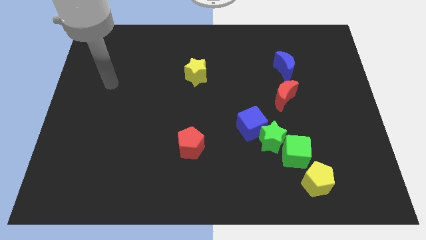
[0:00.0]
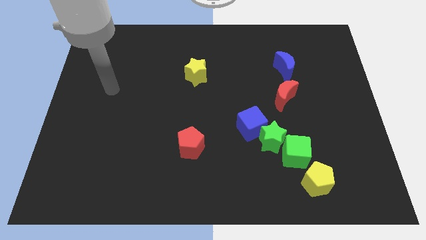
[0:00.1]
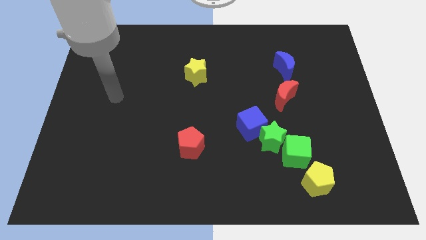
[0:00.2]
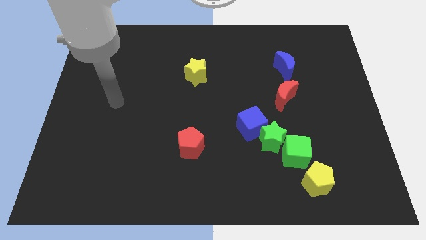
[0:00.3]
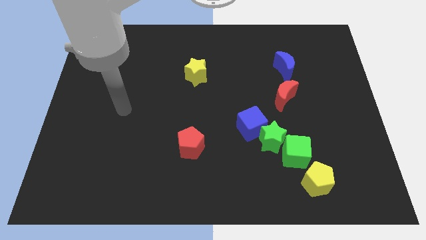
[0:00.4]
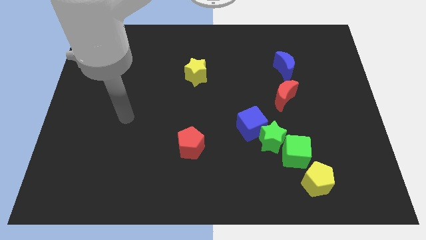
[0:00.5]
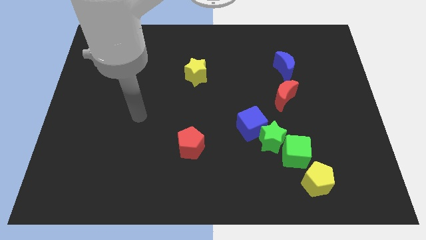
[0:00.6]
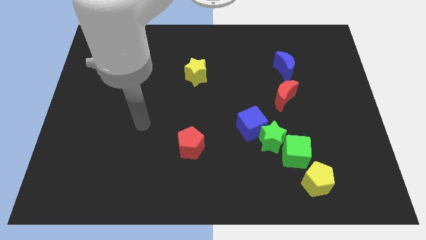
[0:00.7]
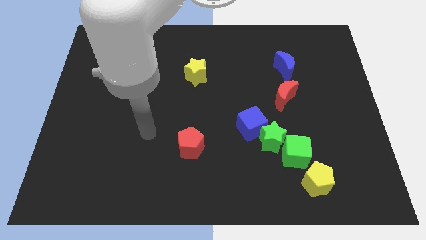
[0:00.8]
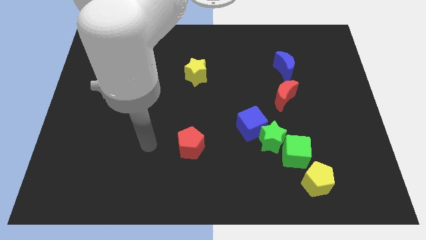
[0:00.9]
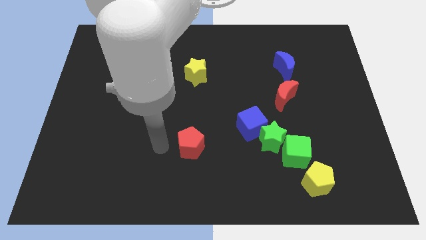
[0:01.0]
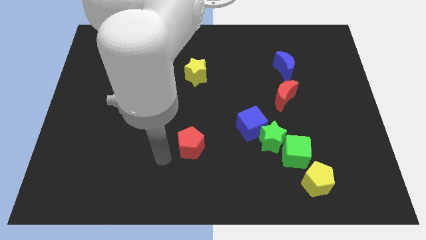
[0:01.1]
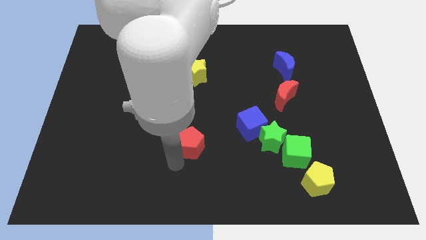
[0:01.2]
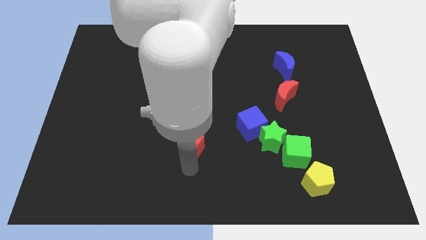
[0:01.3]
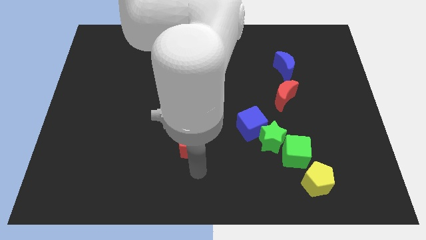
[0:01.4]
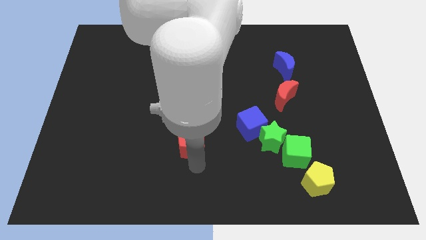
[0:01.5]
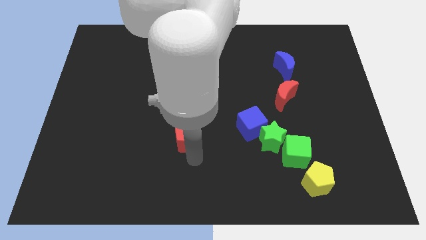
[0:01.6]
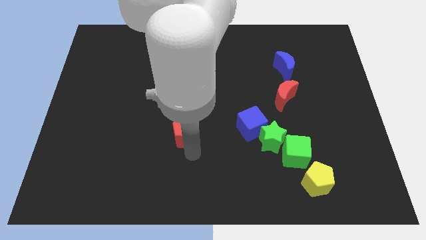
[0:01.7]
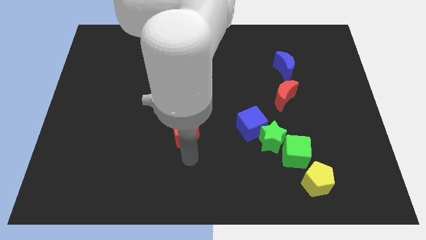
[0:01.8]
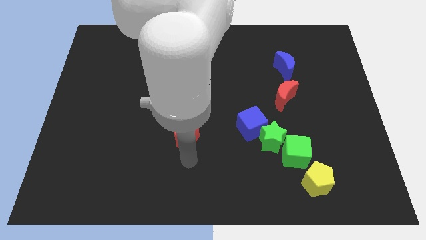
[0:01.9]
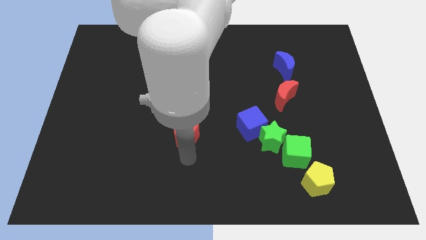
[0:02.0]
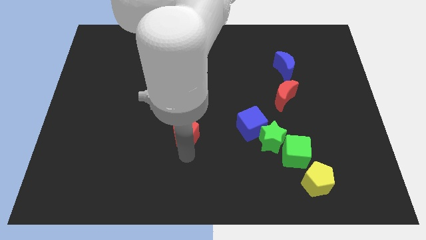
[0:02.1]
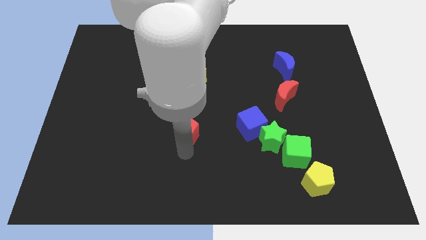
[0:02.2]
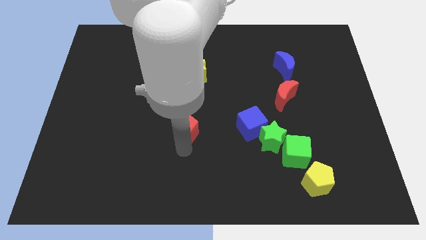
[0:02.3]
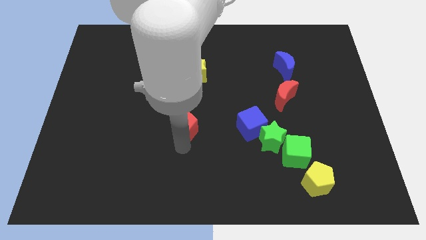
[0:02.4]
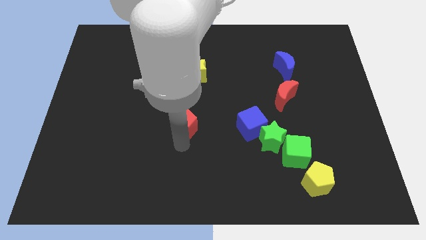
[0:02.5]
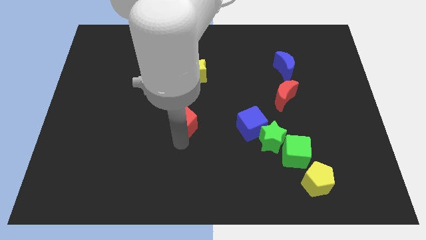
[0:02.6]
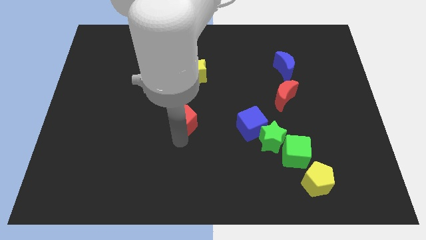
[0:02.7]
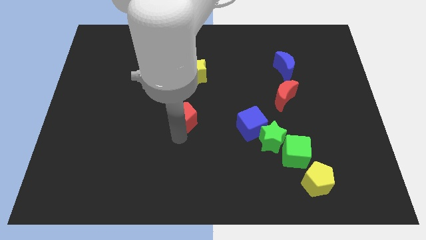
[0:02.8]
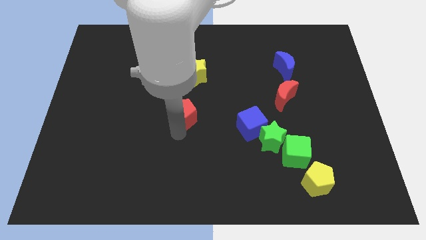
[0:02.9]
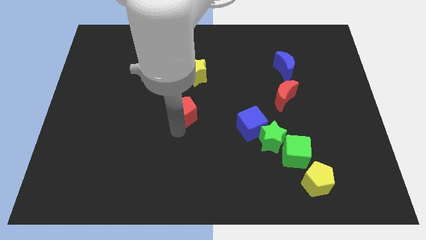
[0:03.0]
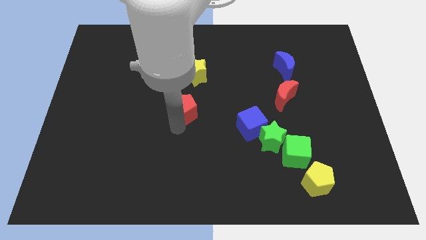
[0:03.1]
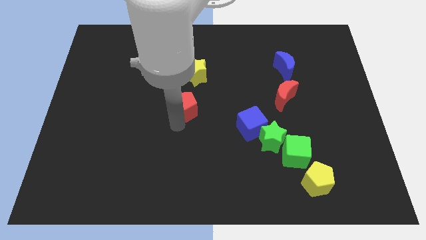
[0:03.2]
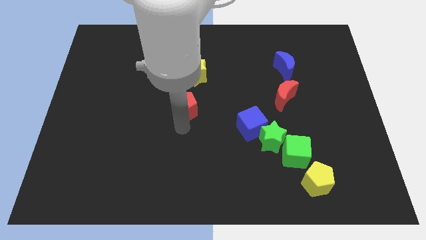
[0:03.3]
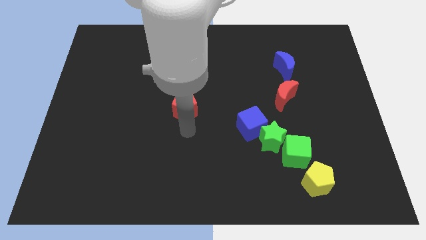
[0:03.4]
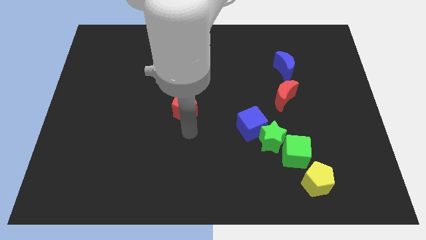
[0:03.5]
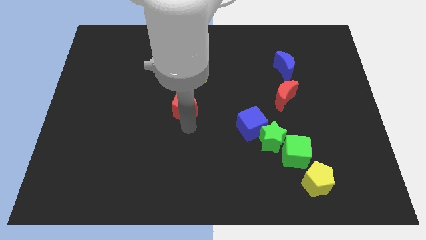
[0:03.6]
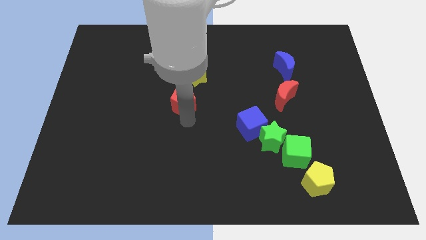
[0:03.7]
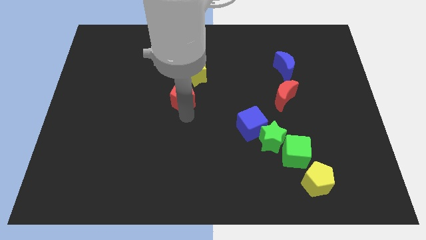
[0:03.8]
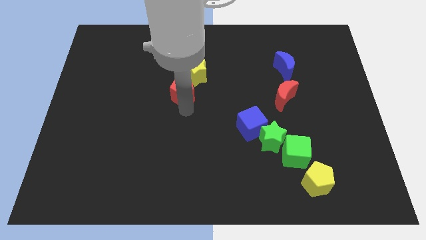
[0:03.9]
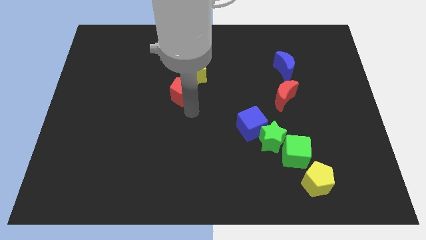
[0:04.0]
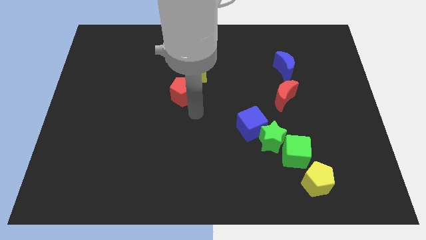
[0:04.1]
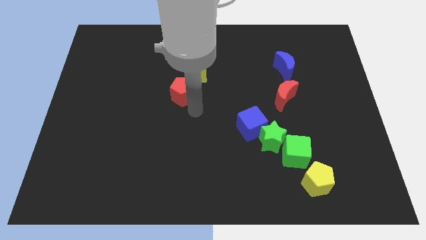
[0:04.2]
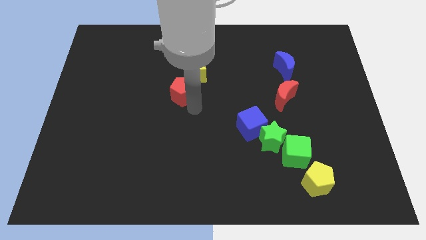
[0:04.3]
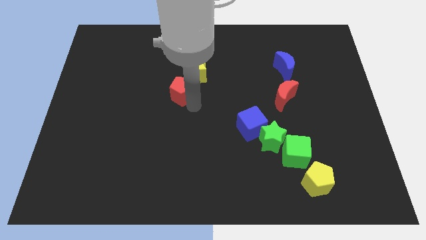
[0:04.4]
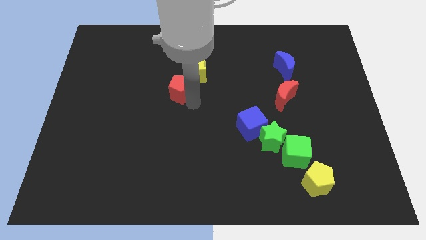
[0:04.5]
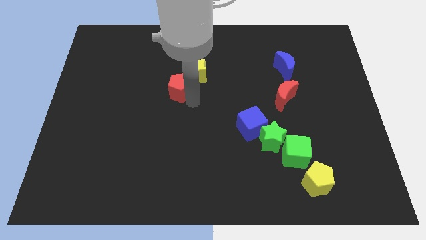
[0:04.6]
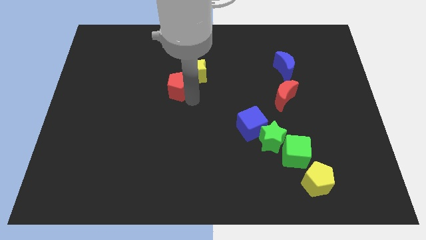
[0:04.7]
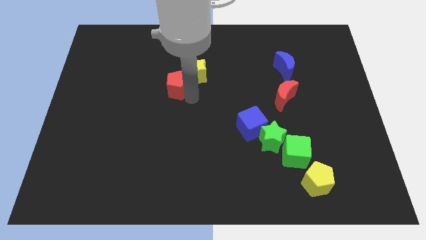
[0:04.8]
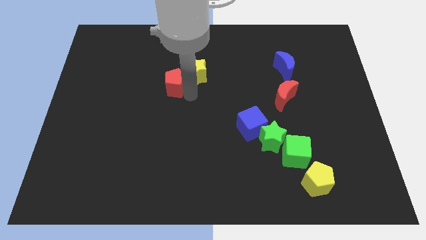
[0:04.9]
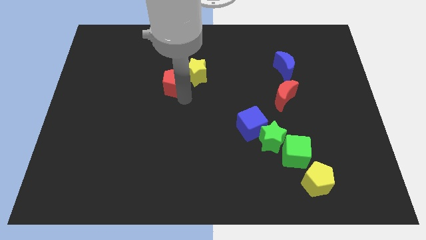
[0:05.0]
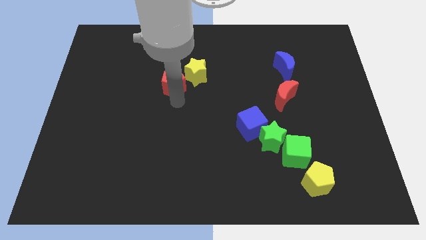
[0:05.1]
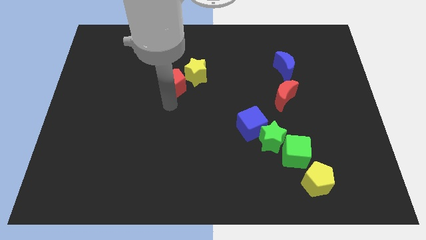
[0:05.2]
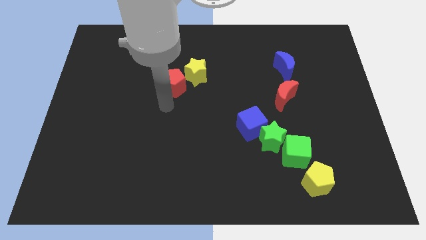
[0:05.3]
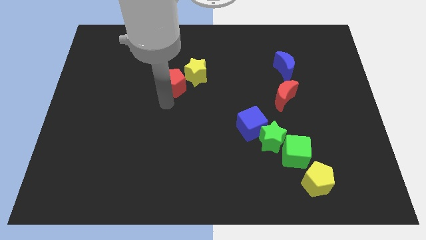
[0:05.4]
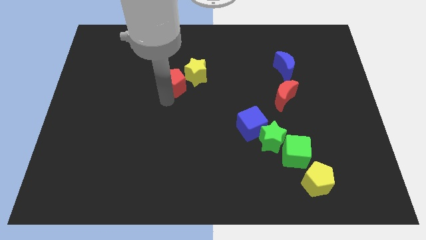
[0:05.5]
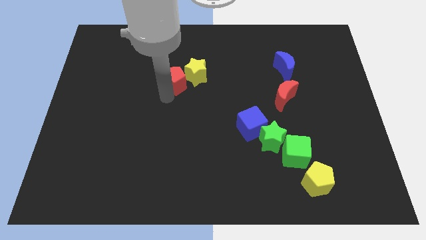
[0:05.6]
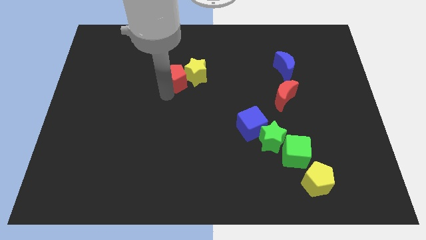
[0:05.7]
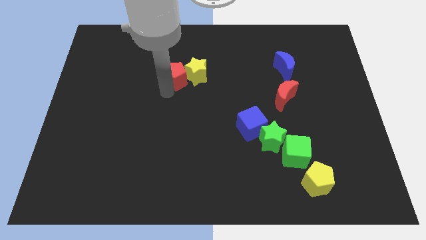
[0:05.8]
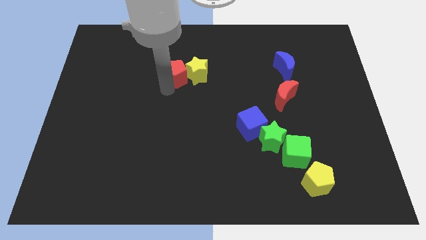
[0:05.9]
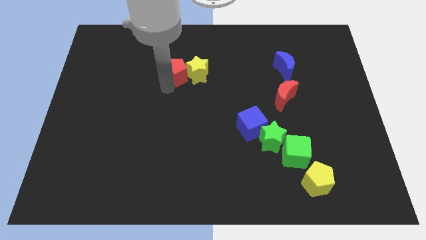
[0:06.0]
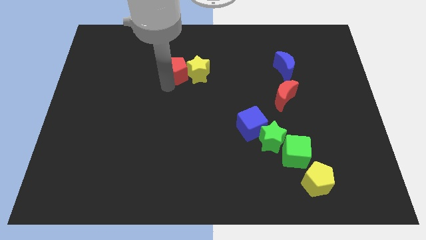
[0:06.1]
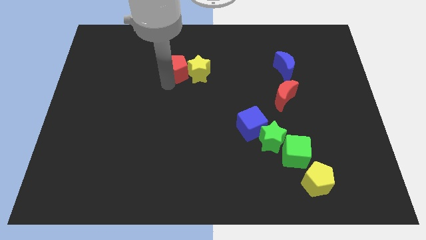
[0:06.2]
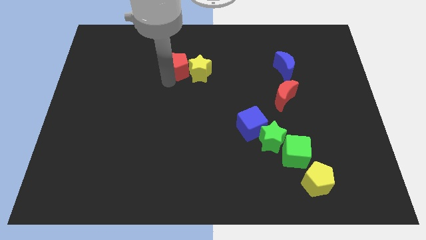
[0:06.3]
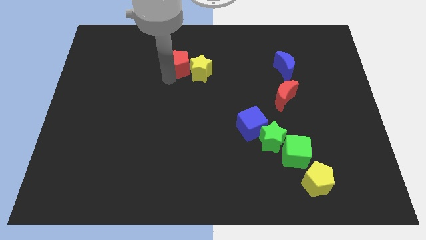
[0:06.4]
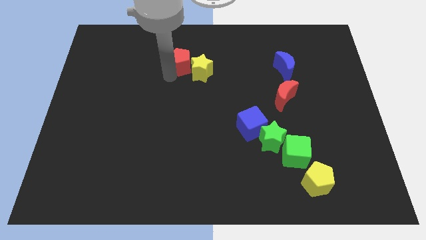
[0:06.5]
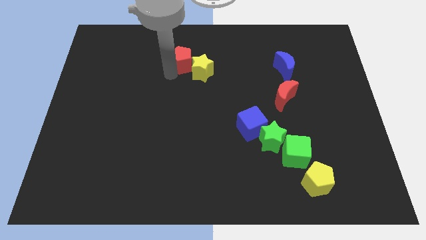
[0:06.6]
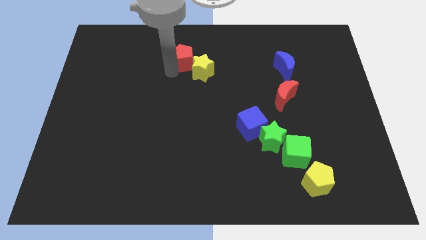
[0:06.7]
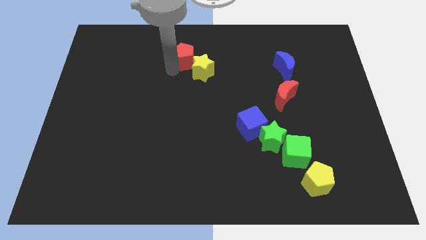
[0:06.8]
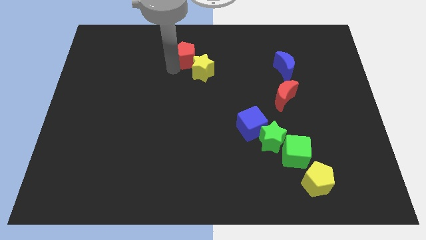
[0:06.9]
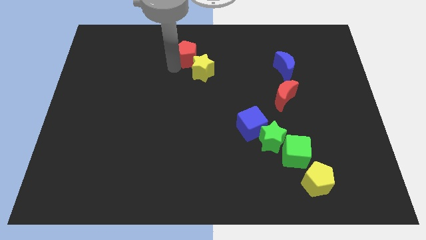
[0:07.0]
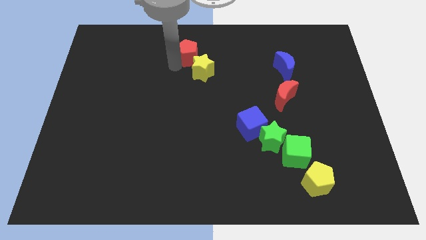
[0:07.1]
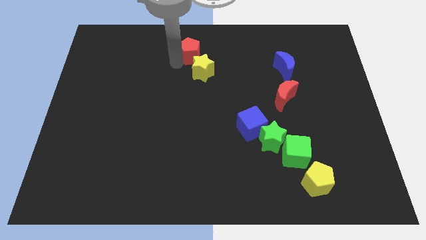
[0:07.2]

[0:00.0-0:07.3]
put the red pentagon to the top side
